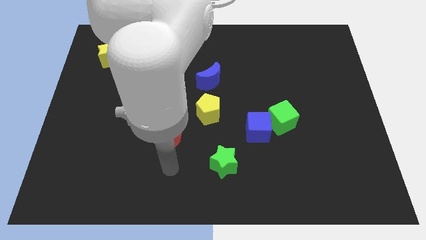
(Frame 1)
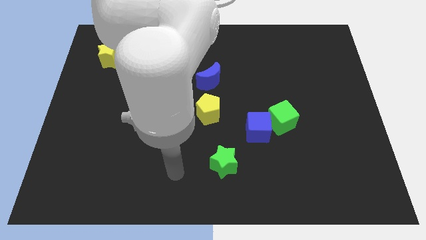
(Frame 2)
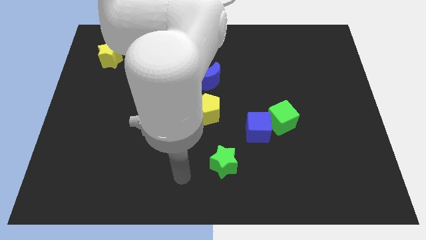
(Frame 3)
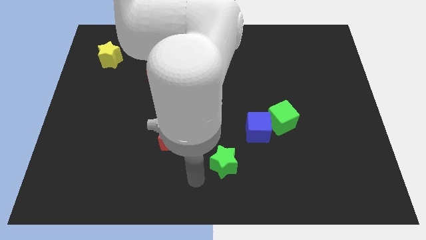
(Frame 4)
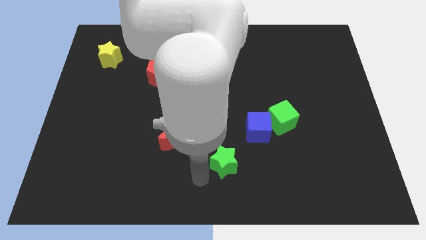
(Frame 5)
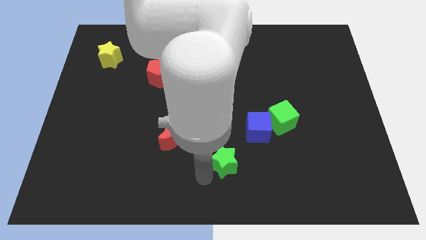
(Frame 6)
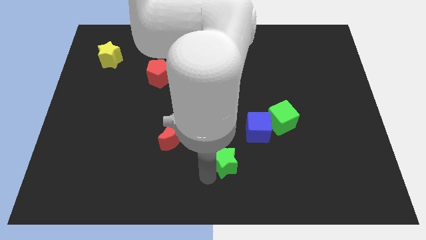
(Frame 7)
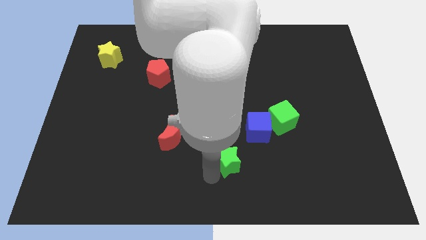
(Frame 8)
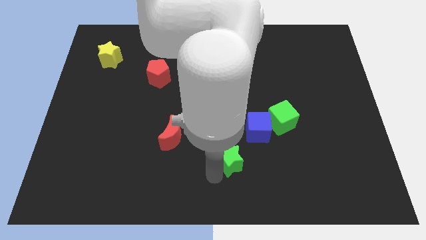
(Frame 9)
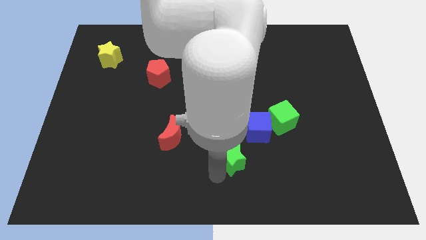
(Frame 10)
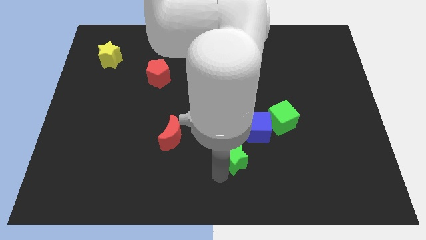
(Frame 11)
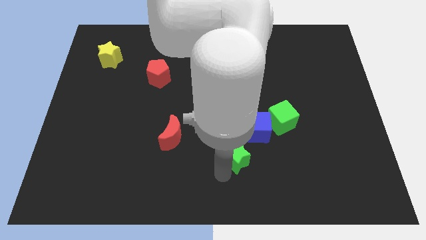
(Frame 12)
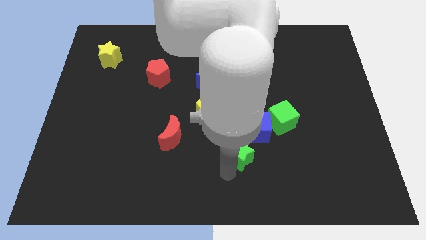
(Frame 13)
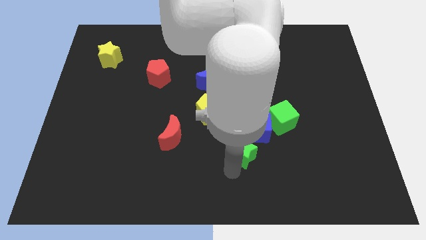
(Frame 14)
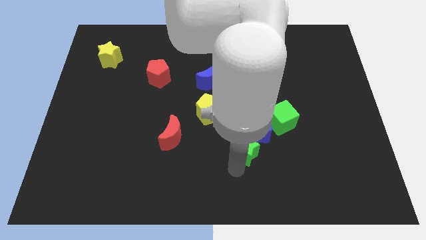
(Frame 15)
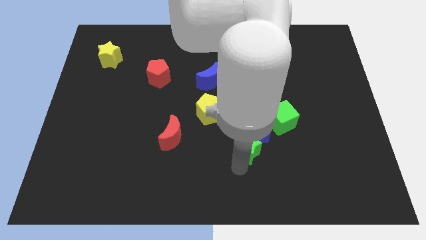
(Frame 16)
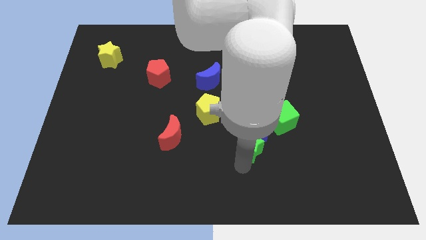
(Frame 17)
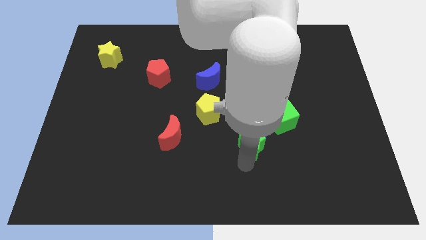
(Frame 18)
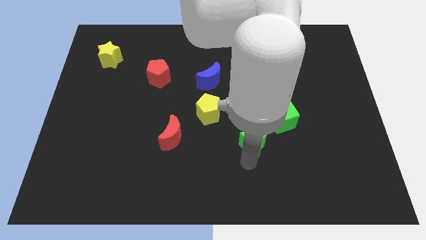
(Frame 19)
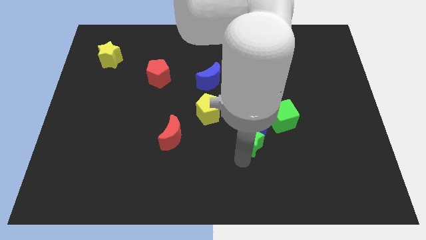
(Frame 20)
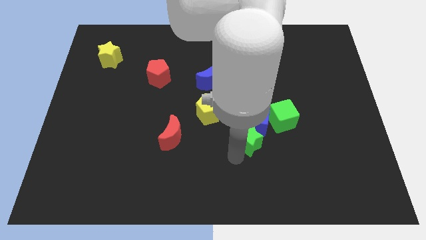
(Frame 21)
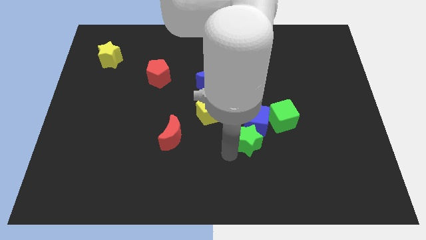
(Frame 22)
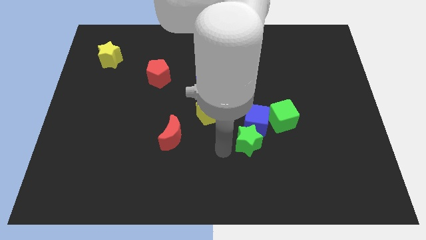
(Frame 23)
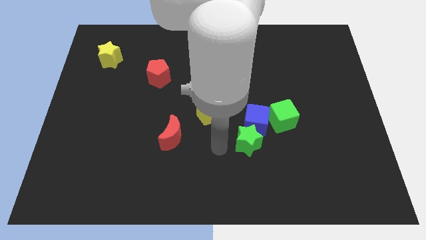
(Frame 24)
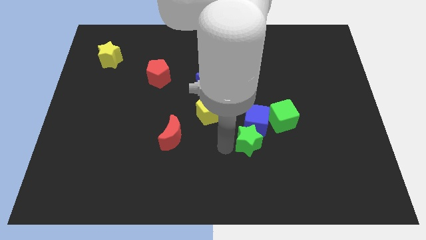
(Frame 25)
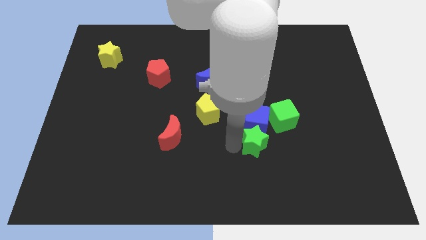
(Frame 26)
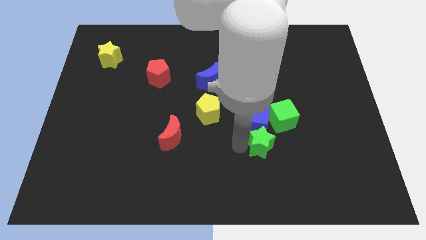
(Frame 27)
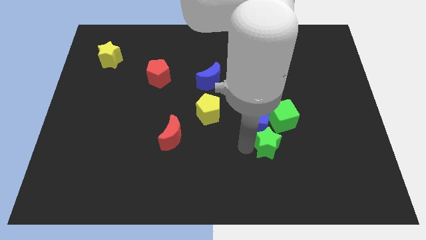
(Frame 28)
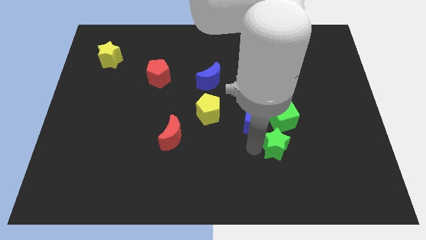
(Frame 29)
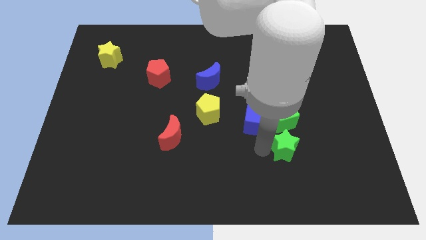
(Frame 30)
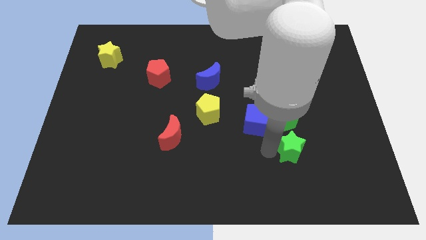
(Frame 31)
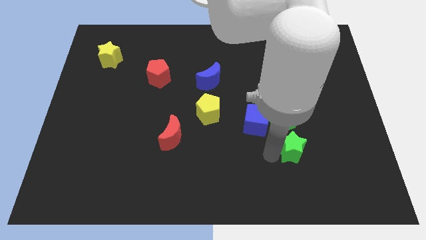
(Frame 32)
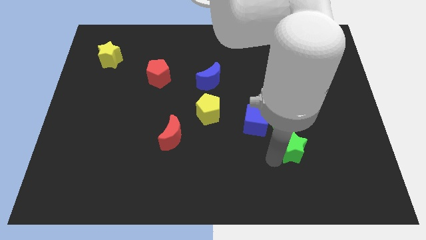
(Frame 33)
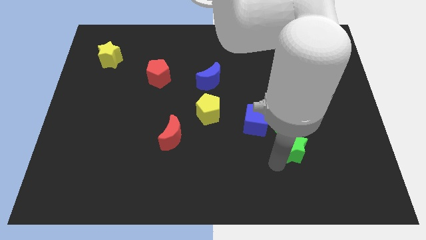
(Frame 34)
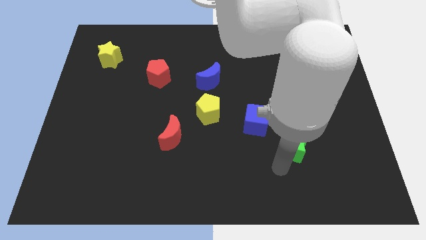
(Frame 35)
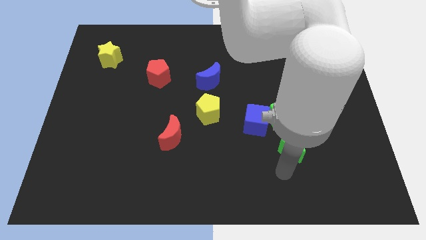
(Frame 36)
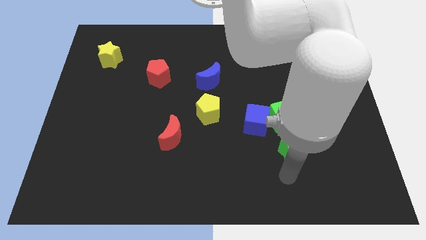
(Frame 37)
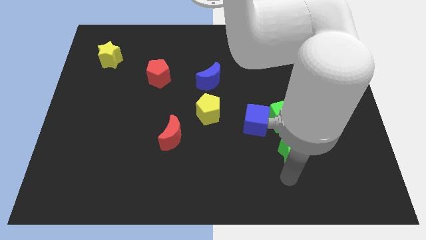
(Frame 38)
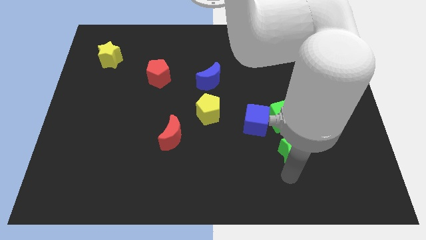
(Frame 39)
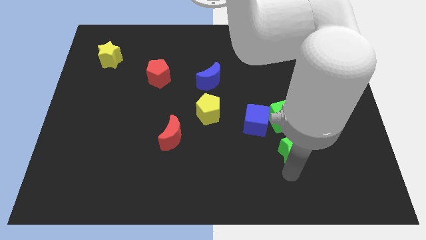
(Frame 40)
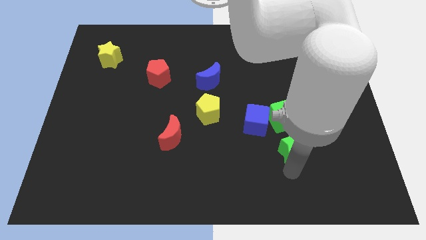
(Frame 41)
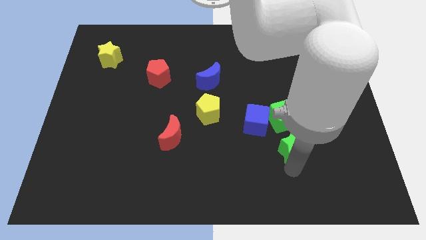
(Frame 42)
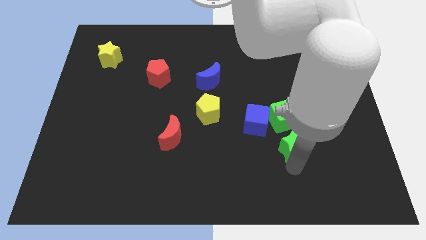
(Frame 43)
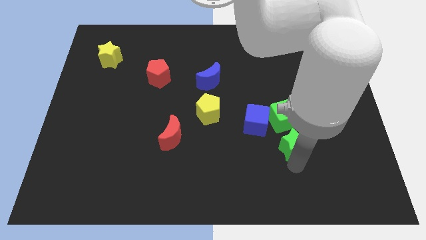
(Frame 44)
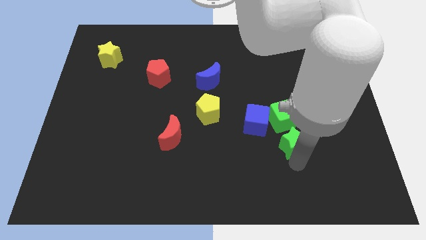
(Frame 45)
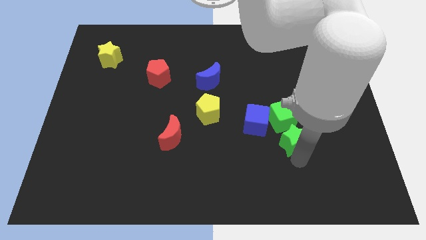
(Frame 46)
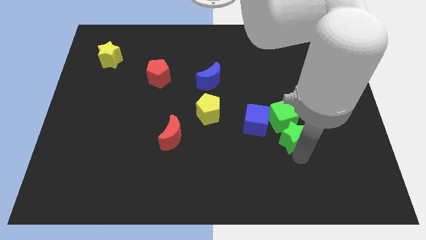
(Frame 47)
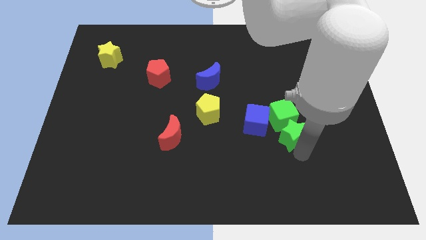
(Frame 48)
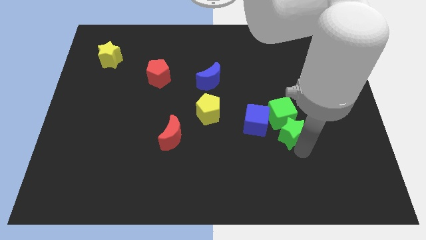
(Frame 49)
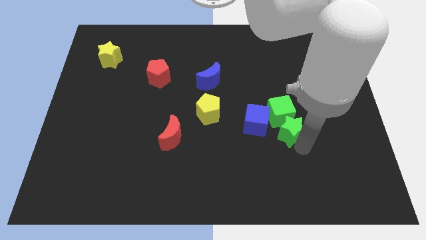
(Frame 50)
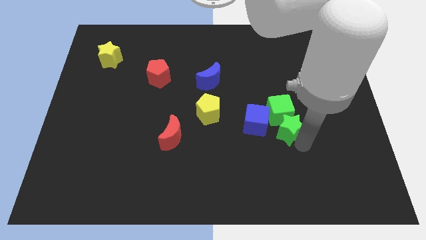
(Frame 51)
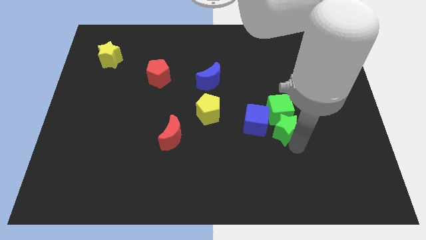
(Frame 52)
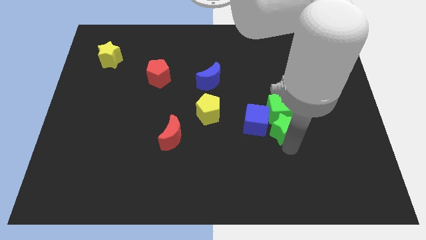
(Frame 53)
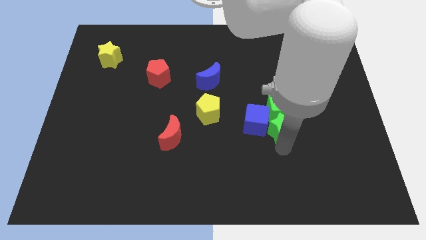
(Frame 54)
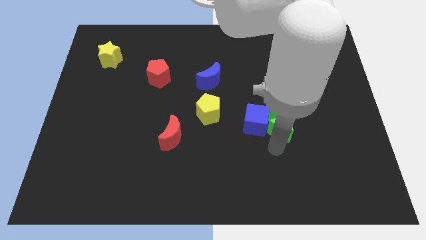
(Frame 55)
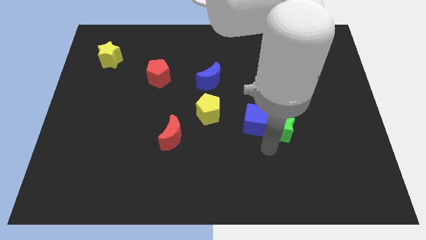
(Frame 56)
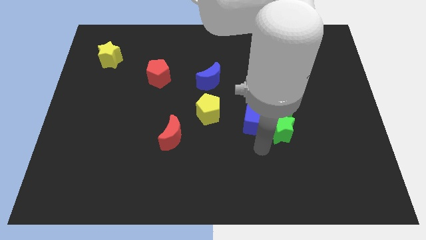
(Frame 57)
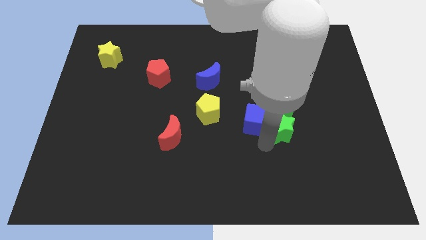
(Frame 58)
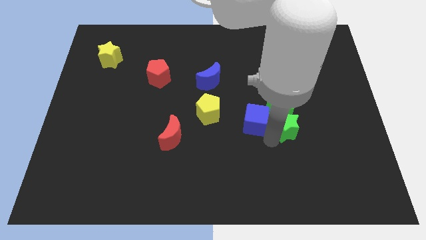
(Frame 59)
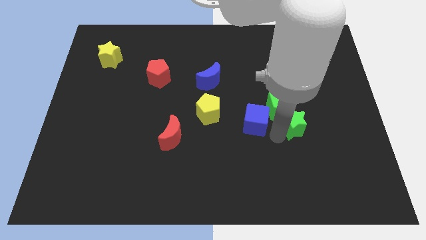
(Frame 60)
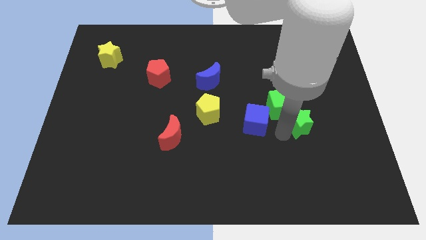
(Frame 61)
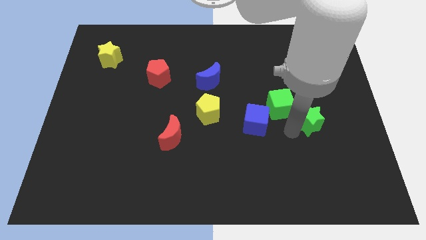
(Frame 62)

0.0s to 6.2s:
slide the green star up and to the right diagonally

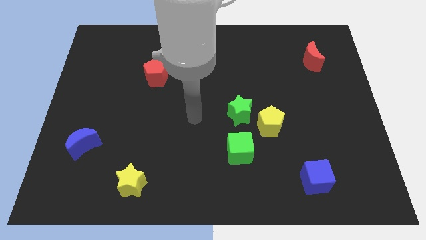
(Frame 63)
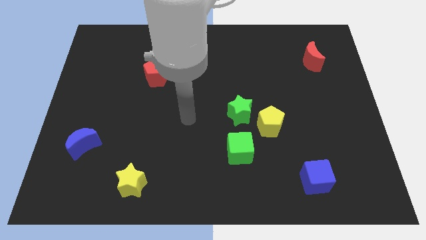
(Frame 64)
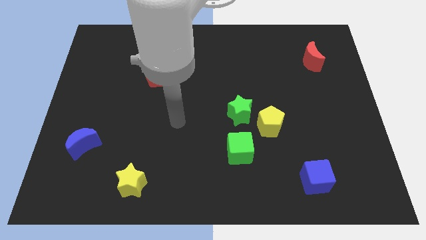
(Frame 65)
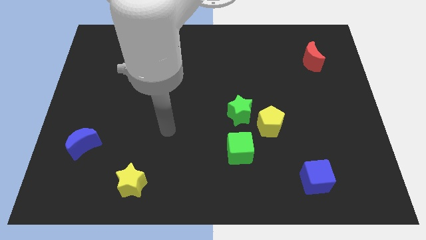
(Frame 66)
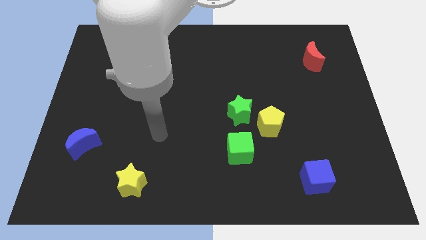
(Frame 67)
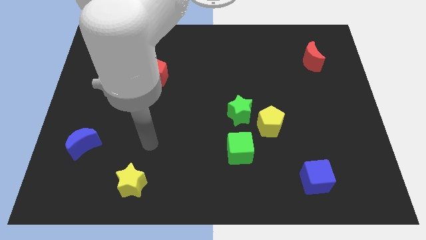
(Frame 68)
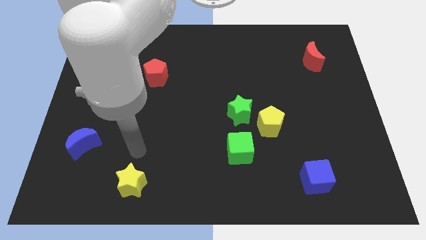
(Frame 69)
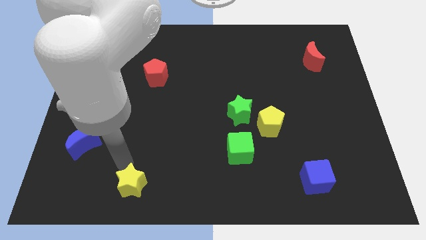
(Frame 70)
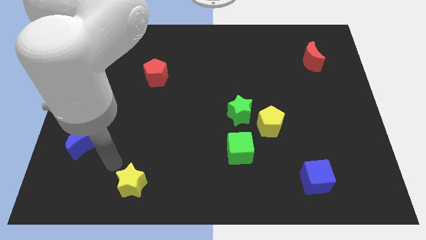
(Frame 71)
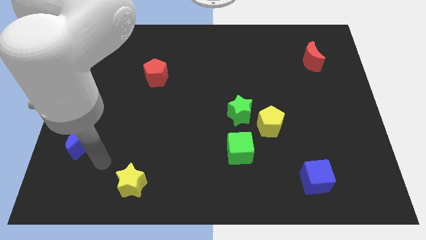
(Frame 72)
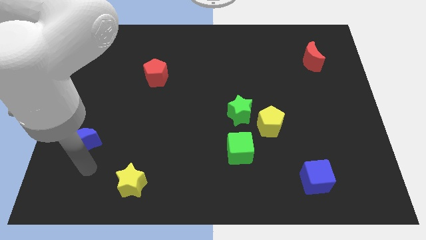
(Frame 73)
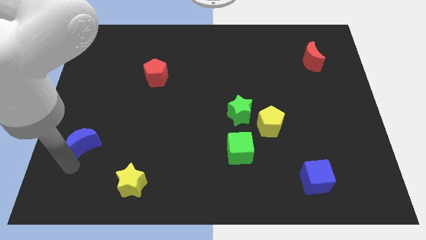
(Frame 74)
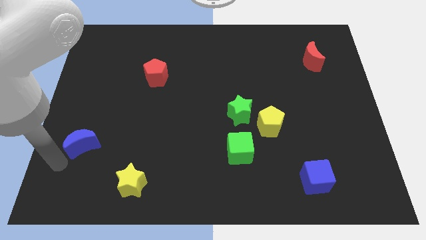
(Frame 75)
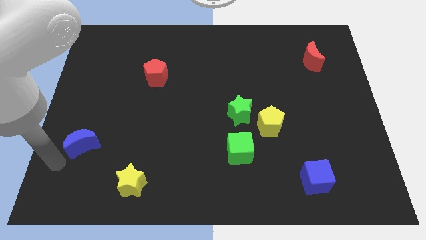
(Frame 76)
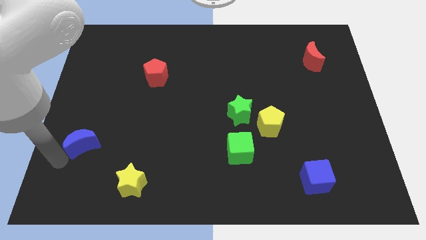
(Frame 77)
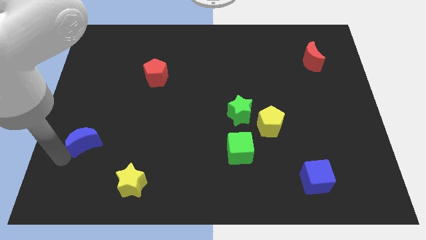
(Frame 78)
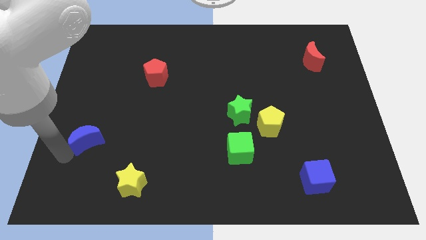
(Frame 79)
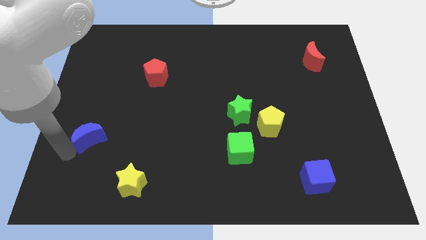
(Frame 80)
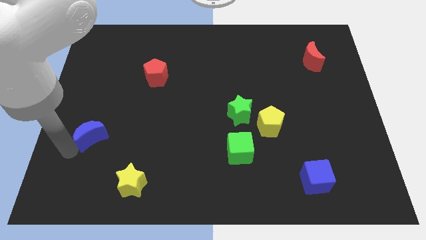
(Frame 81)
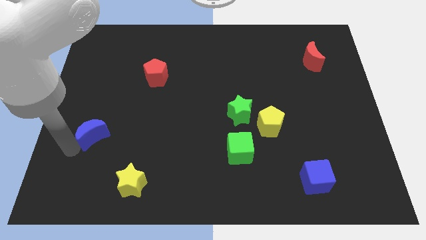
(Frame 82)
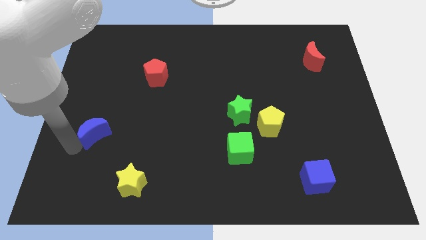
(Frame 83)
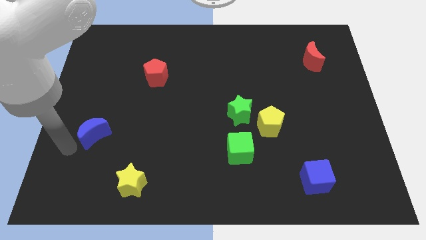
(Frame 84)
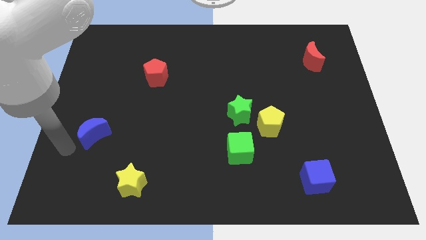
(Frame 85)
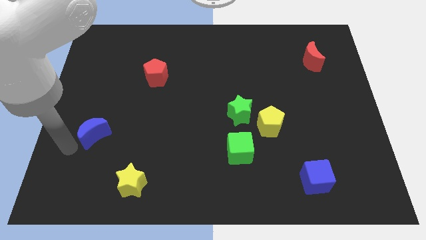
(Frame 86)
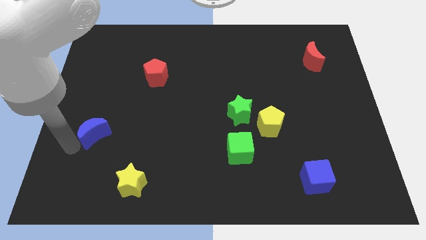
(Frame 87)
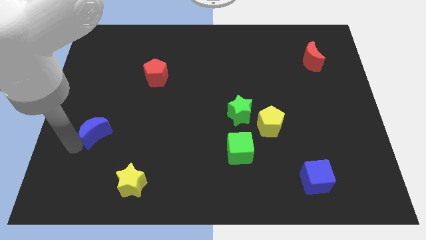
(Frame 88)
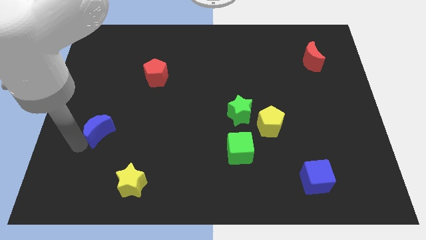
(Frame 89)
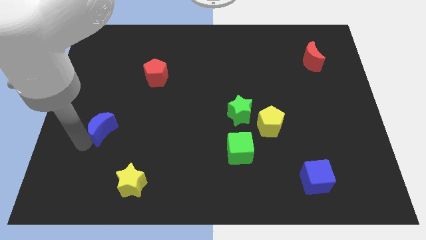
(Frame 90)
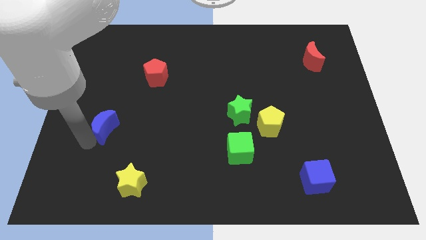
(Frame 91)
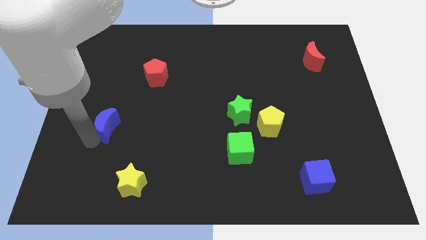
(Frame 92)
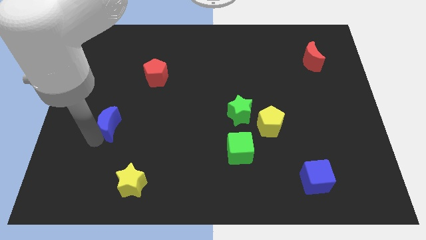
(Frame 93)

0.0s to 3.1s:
slightly slide the blue moon upwards and then to the right
